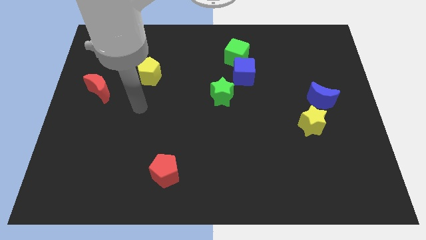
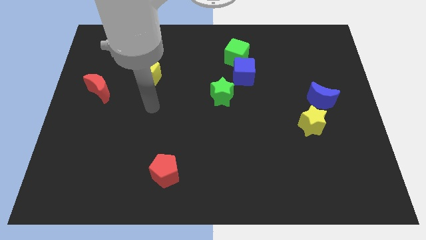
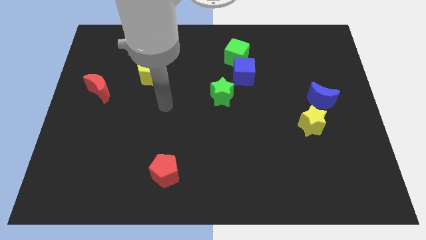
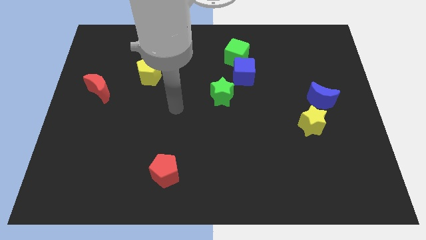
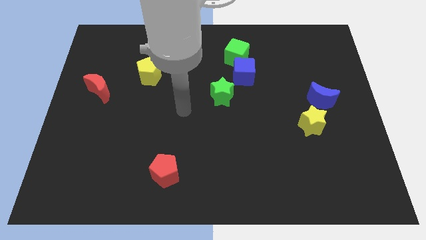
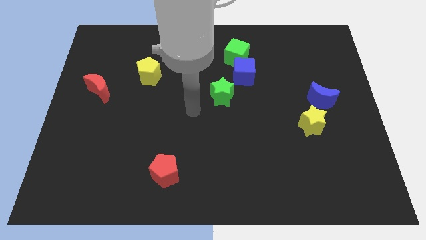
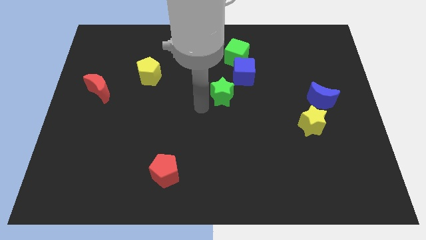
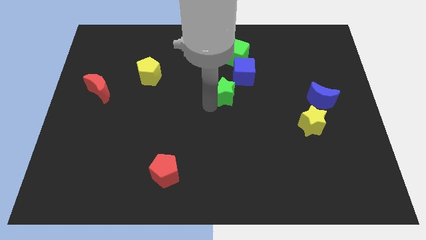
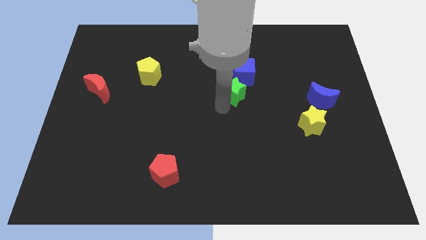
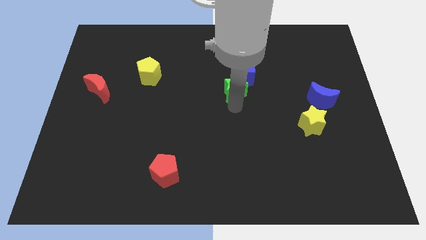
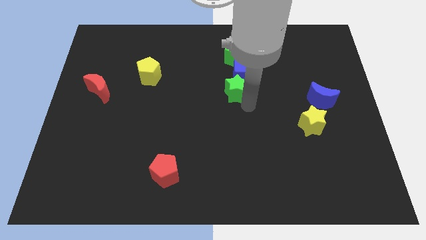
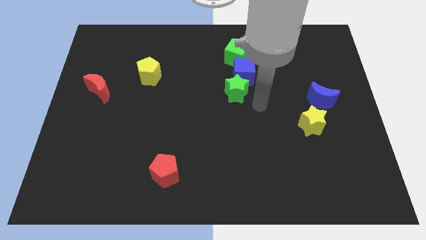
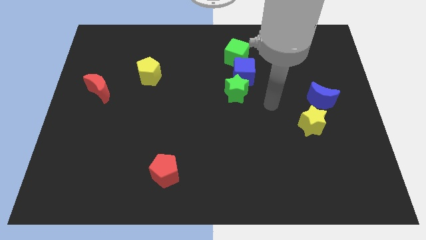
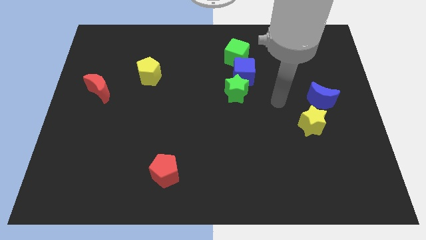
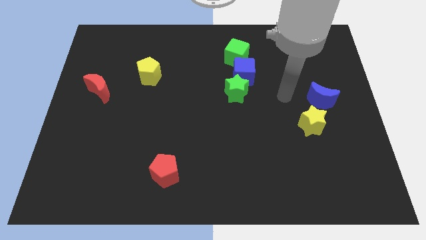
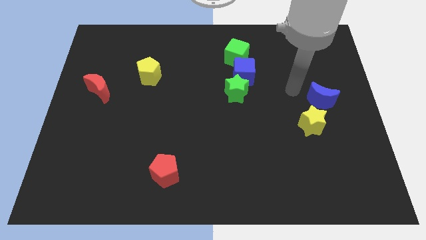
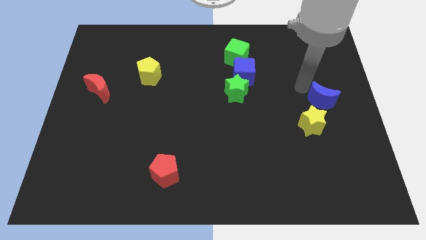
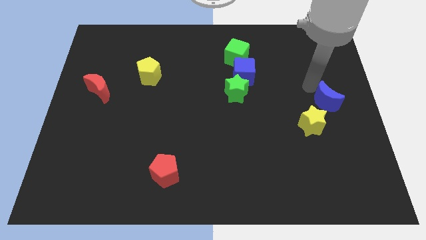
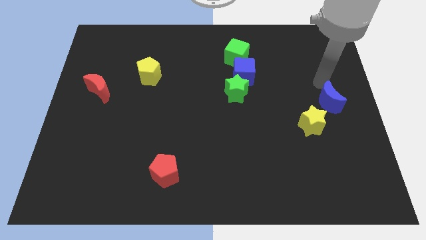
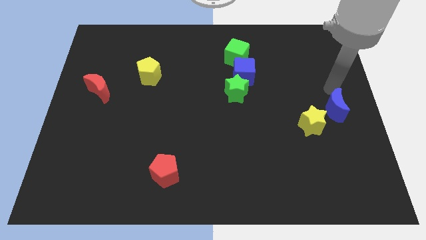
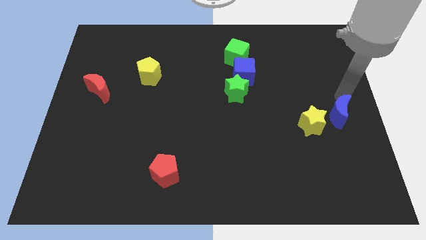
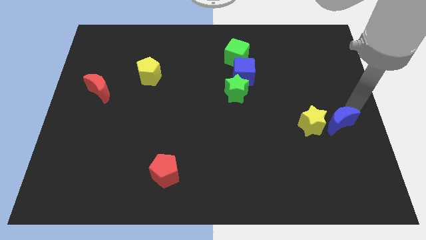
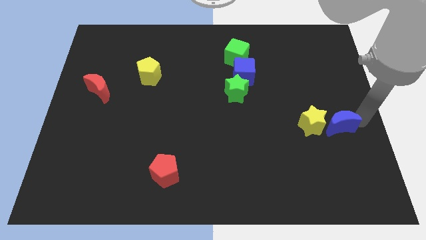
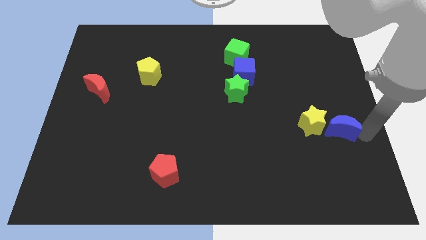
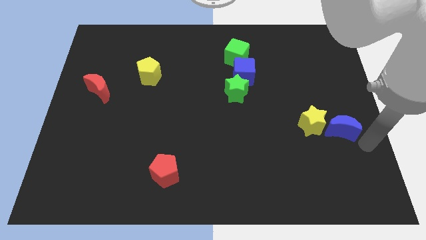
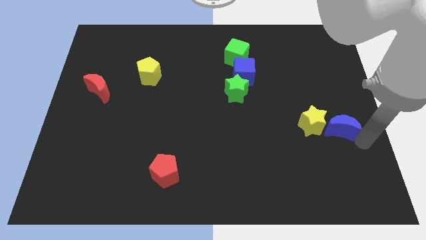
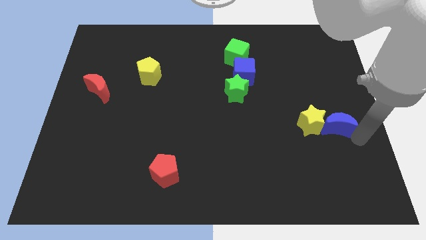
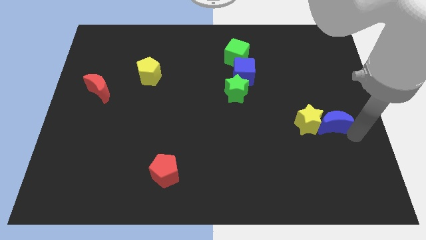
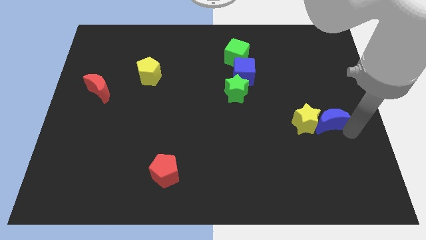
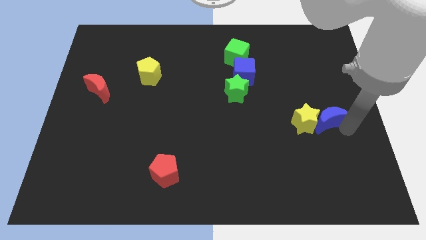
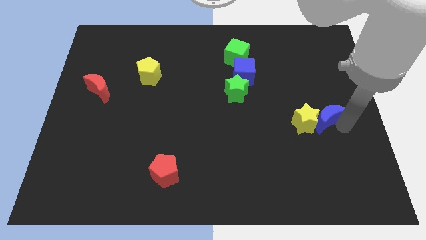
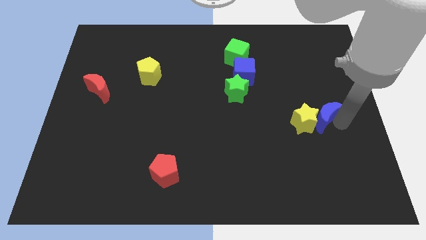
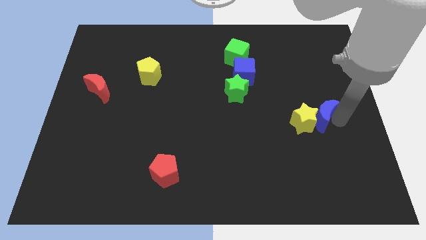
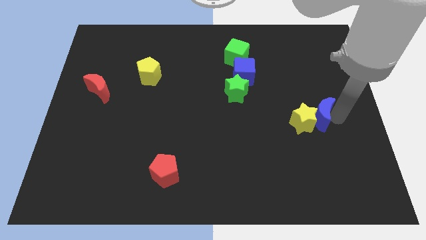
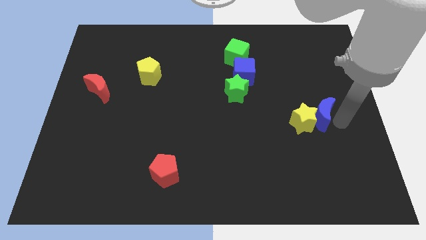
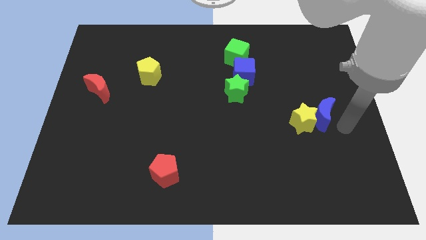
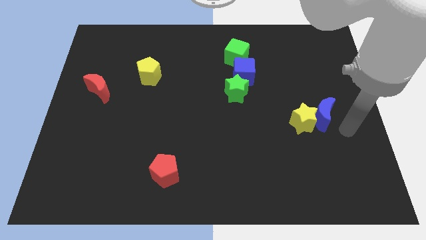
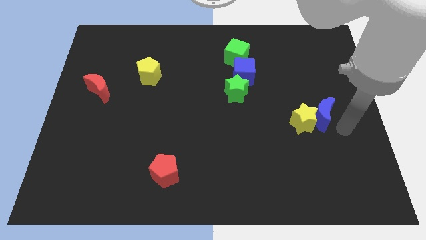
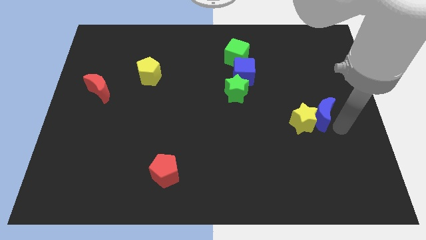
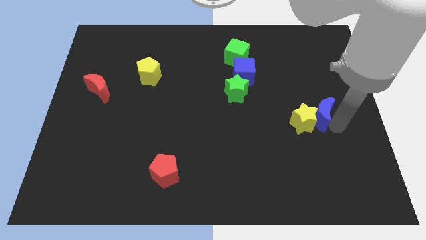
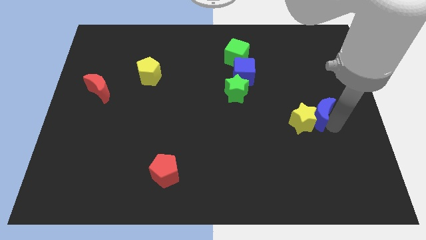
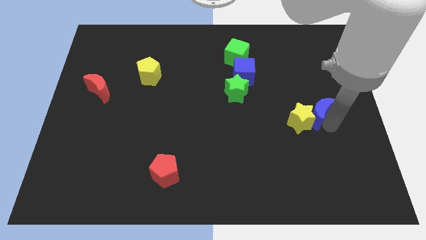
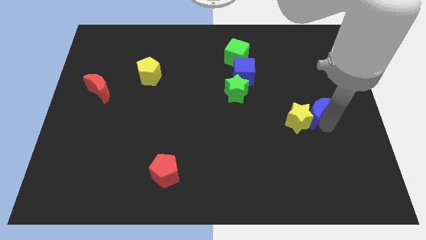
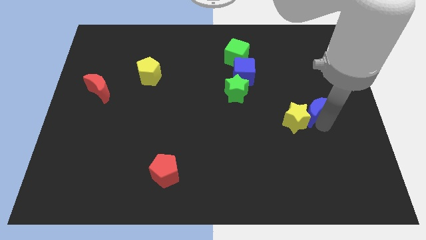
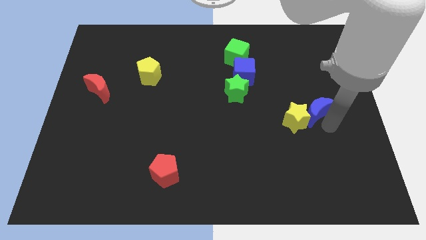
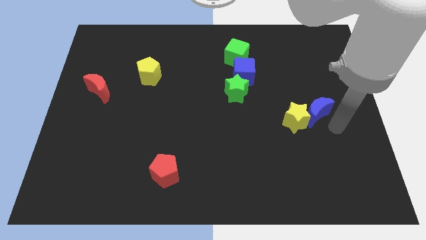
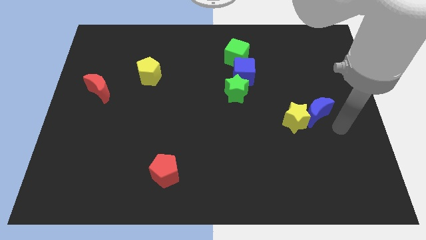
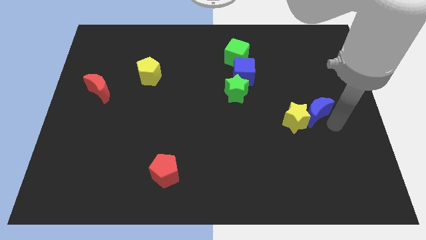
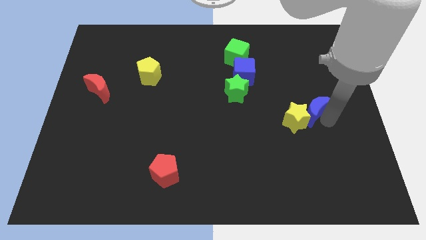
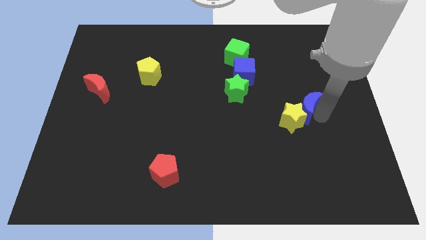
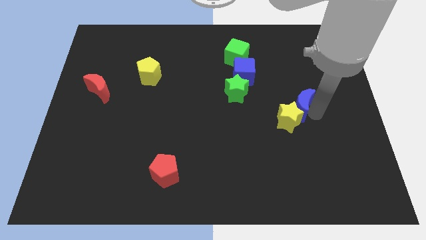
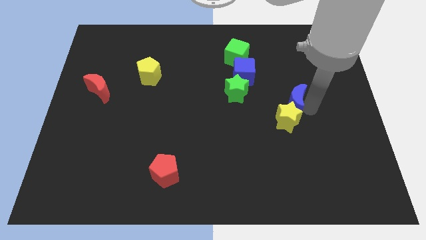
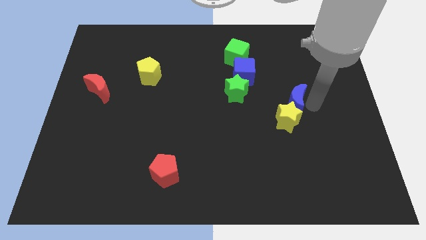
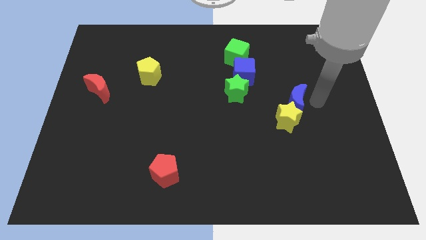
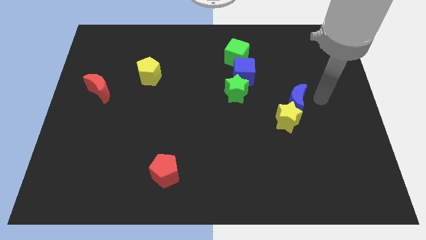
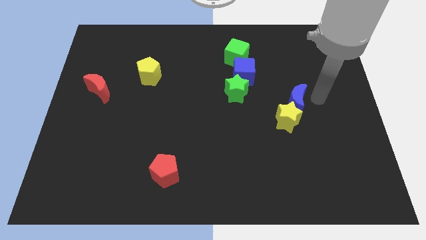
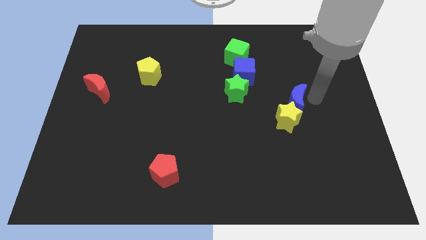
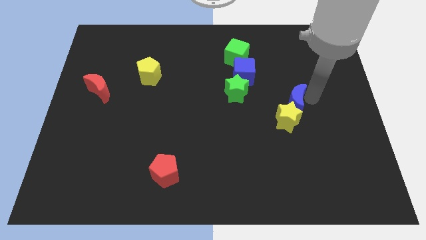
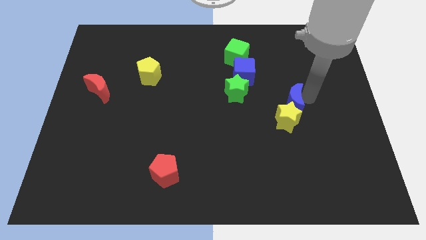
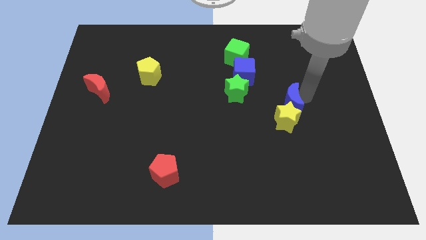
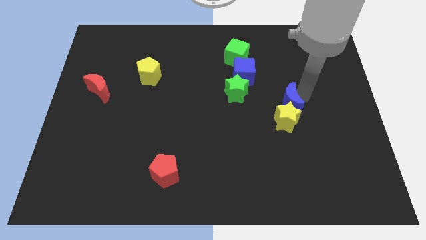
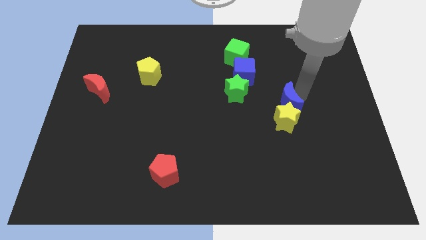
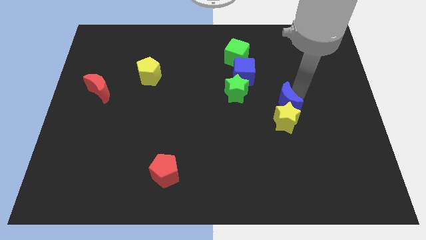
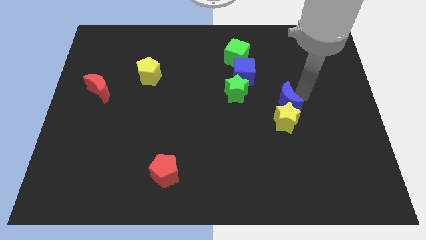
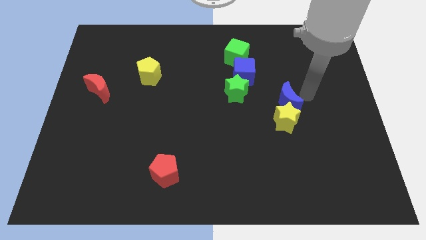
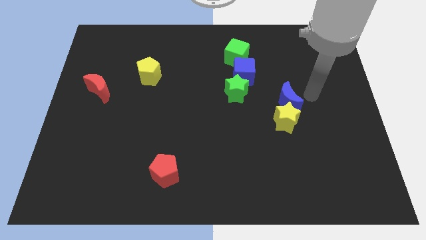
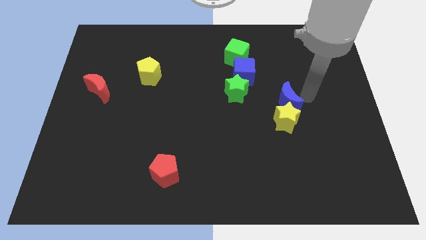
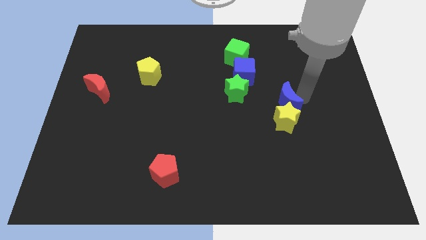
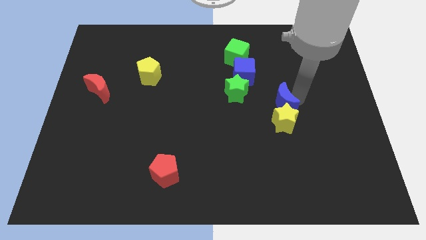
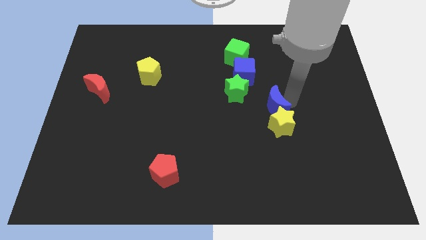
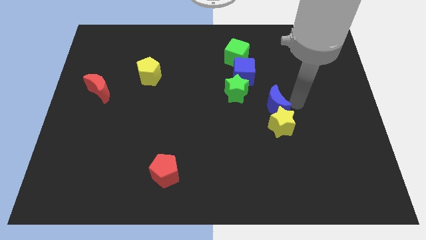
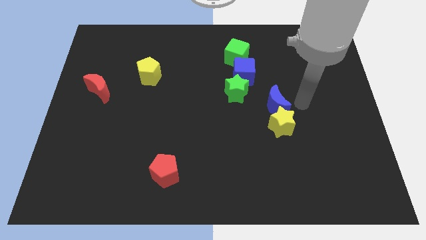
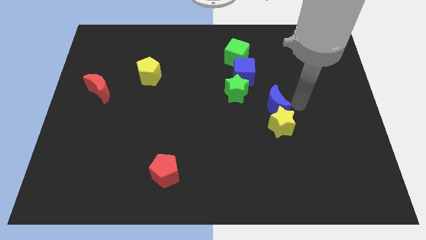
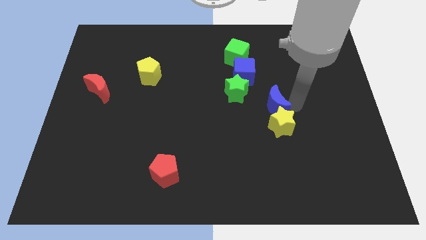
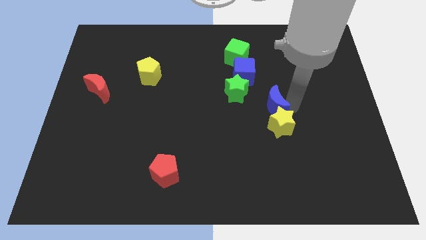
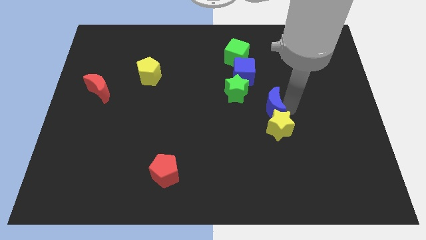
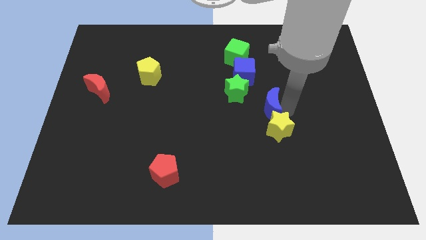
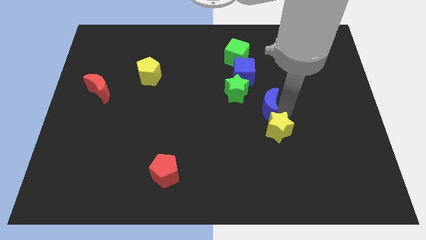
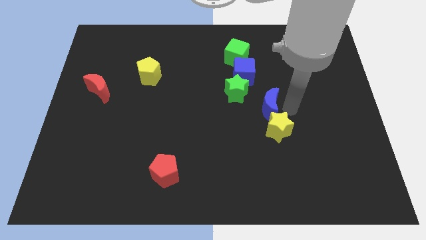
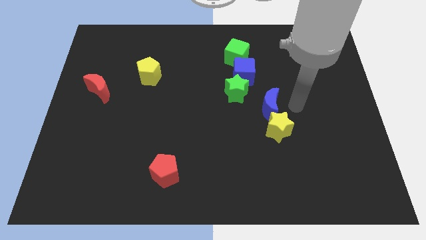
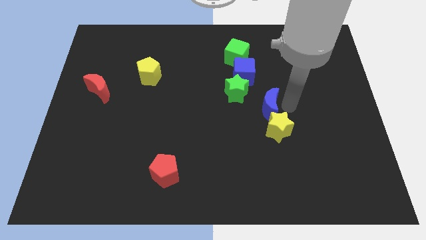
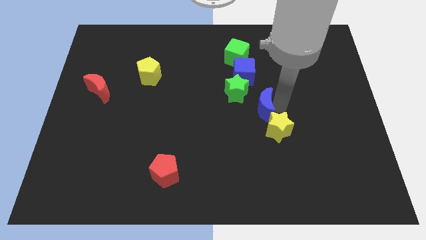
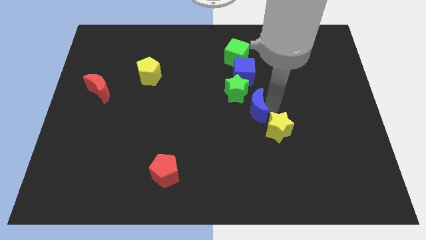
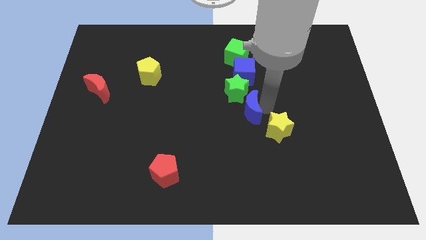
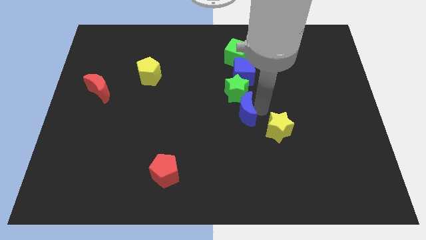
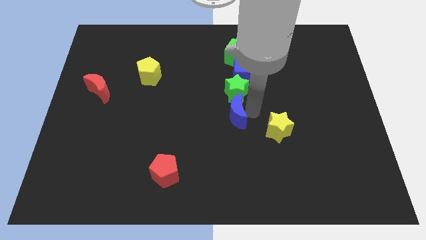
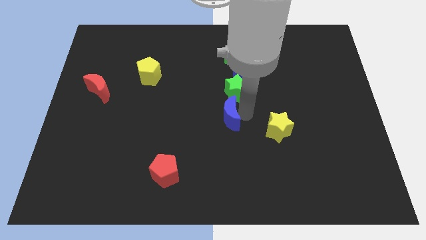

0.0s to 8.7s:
slide the blue moon to the left
